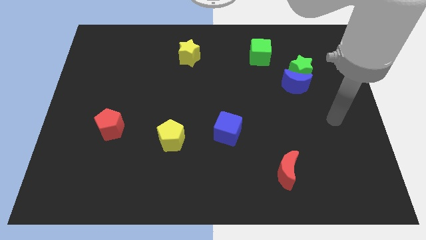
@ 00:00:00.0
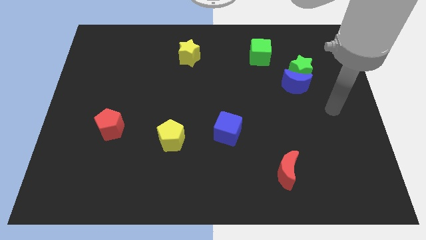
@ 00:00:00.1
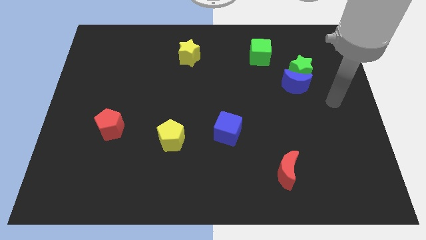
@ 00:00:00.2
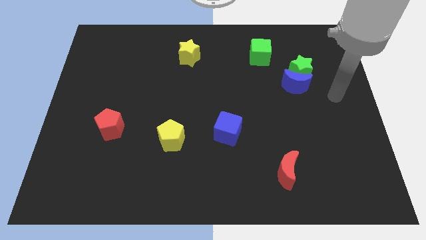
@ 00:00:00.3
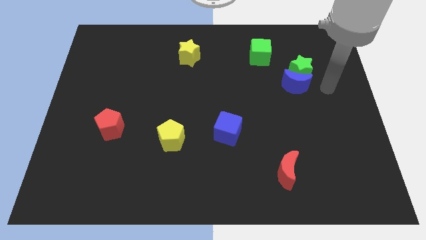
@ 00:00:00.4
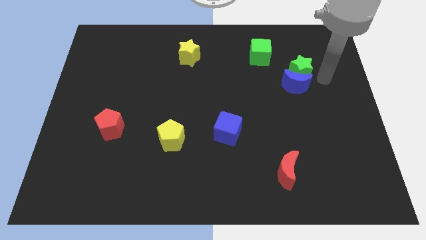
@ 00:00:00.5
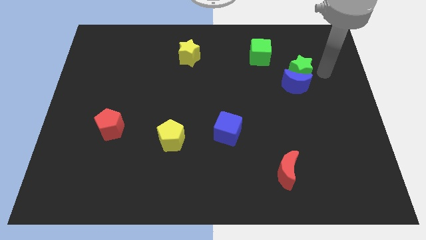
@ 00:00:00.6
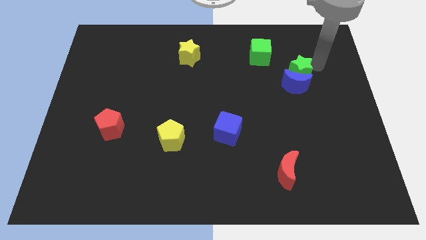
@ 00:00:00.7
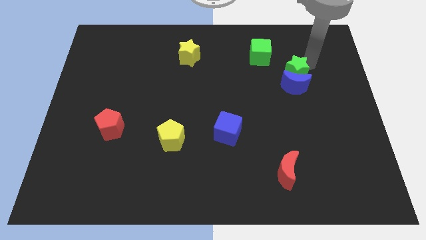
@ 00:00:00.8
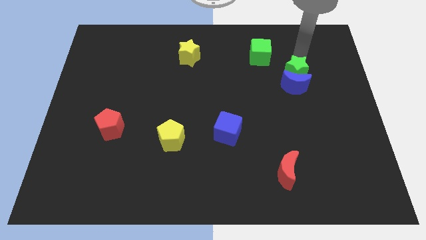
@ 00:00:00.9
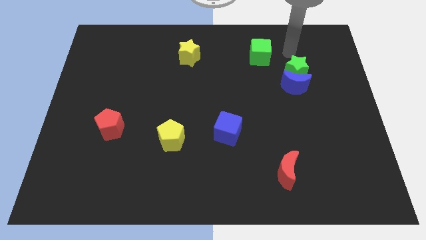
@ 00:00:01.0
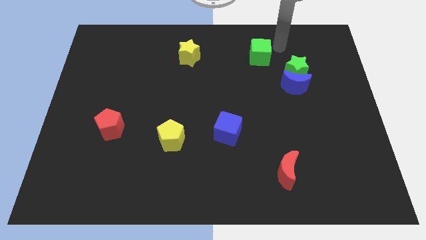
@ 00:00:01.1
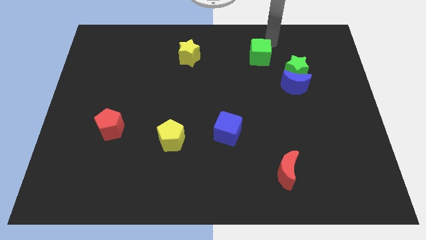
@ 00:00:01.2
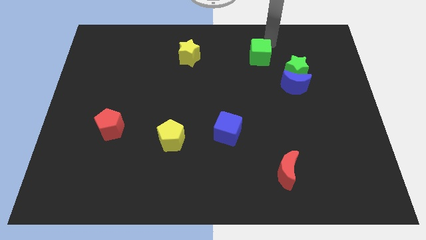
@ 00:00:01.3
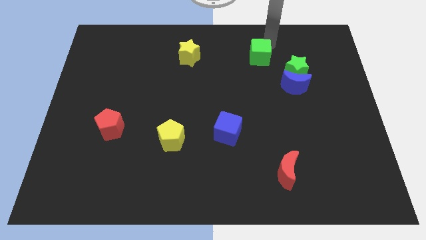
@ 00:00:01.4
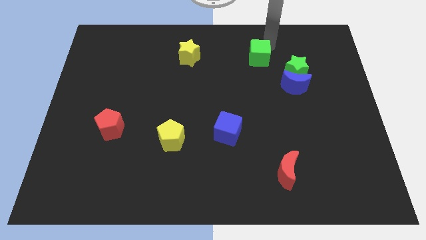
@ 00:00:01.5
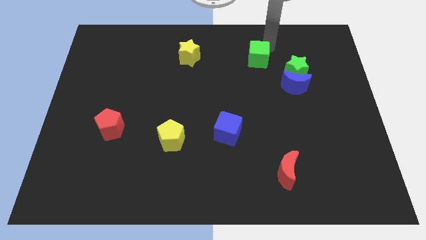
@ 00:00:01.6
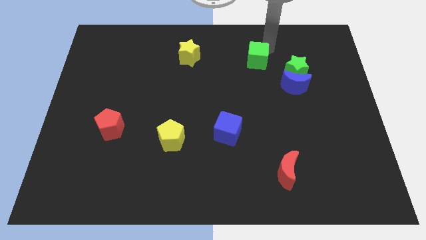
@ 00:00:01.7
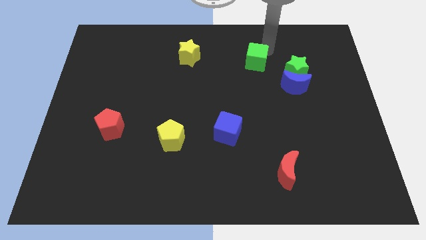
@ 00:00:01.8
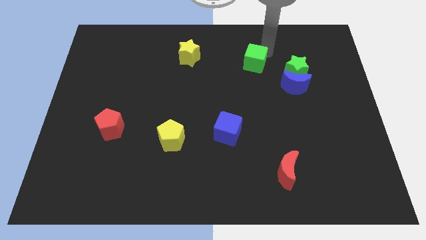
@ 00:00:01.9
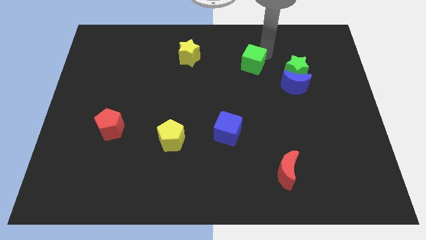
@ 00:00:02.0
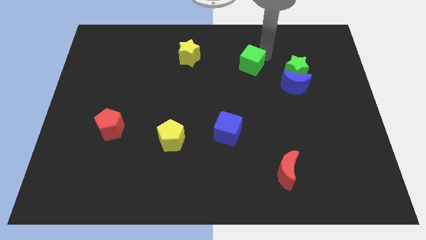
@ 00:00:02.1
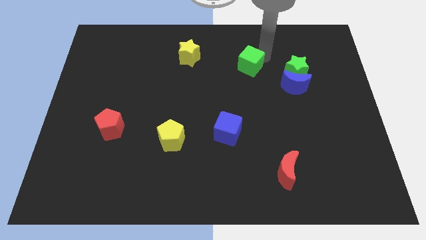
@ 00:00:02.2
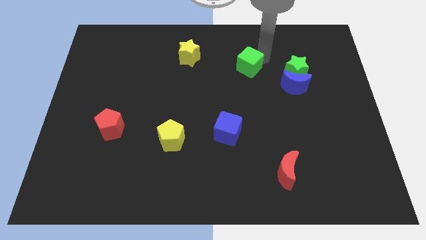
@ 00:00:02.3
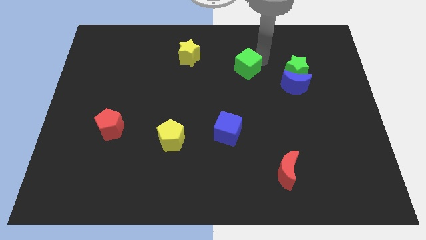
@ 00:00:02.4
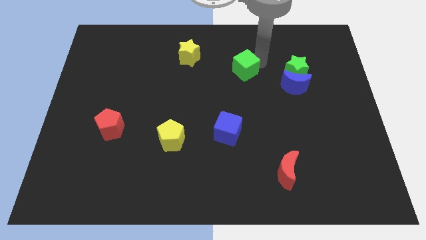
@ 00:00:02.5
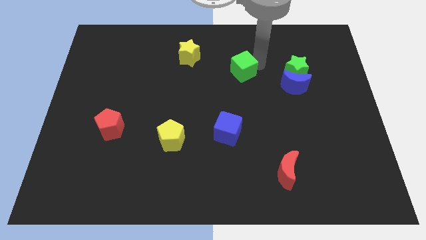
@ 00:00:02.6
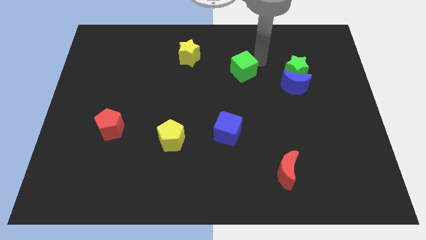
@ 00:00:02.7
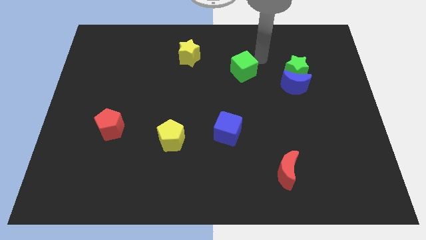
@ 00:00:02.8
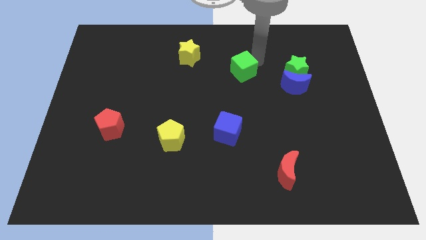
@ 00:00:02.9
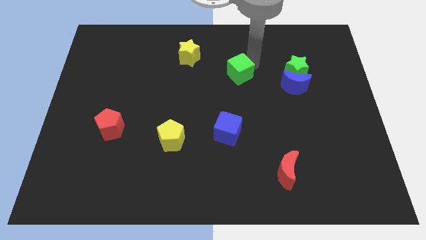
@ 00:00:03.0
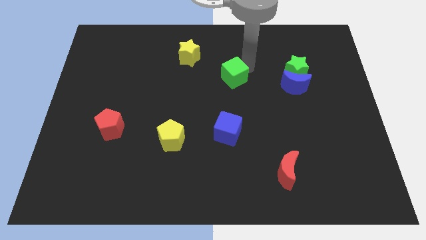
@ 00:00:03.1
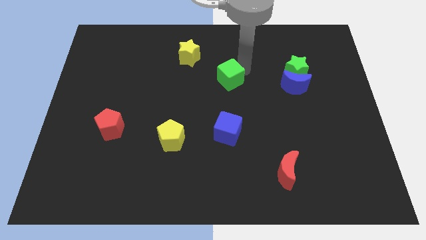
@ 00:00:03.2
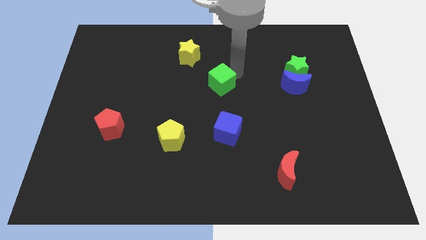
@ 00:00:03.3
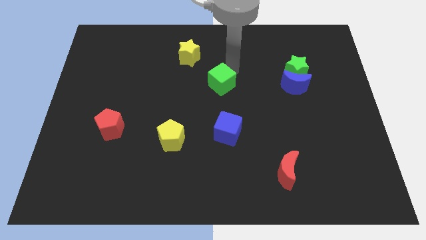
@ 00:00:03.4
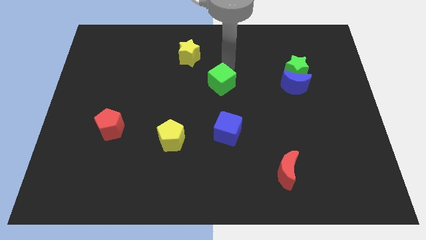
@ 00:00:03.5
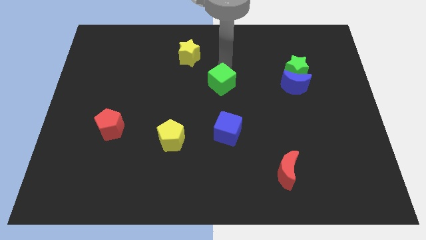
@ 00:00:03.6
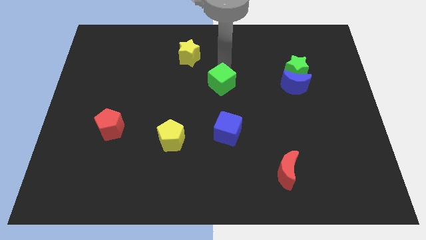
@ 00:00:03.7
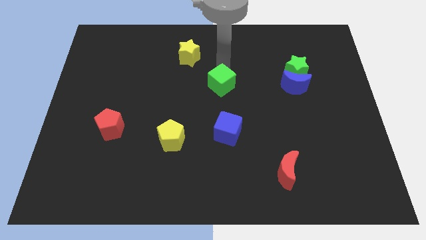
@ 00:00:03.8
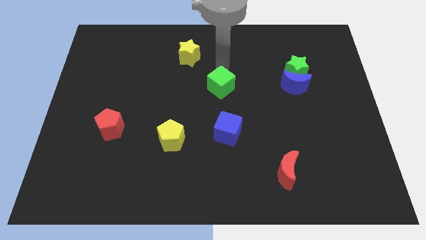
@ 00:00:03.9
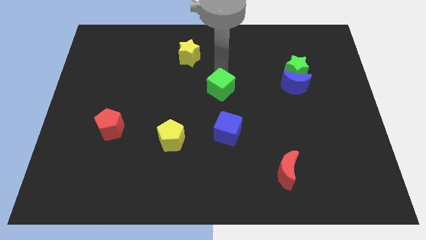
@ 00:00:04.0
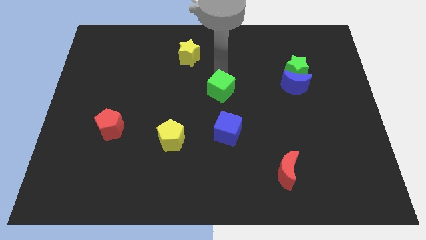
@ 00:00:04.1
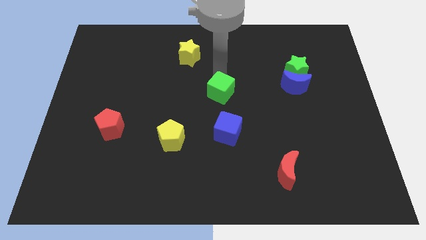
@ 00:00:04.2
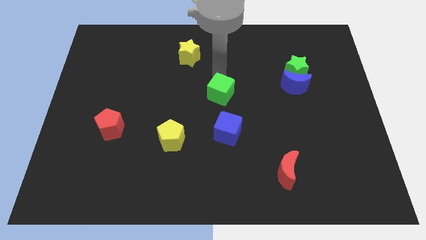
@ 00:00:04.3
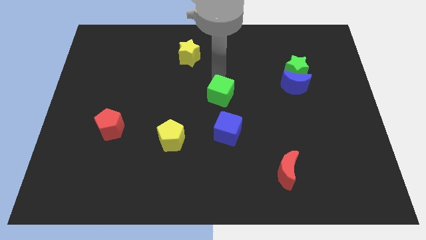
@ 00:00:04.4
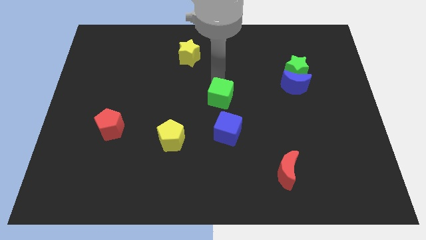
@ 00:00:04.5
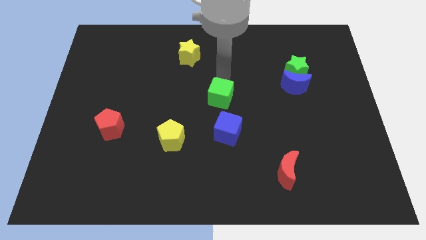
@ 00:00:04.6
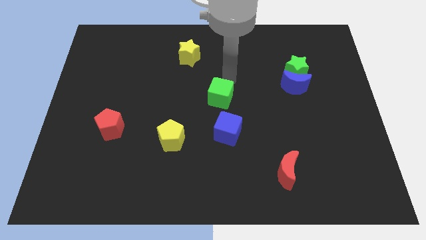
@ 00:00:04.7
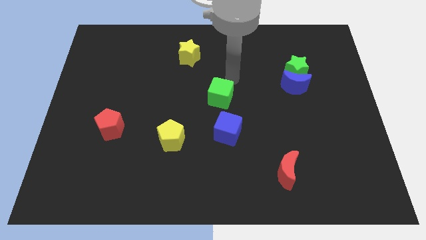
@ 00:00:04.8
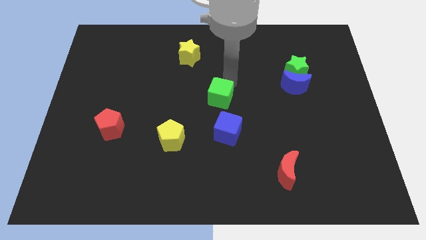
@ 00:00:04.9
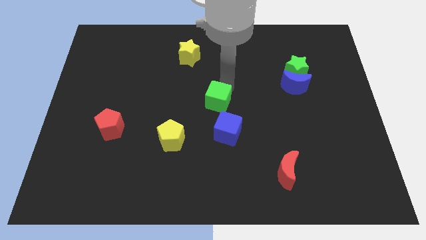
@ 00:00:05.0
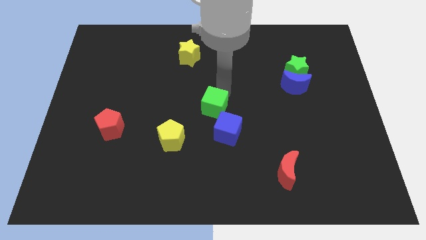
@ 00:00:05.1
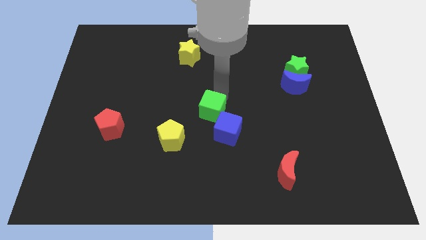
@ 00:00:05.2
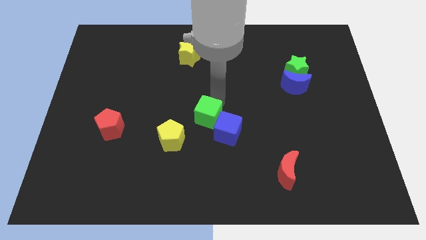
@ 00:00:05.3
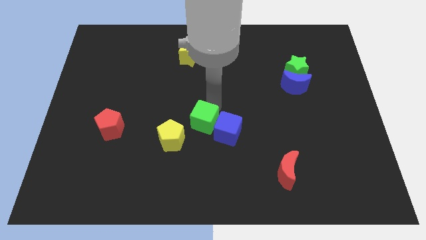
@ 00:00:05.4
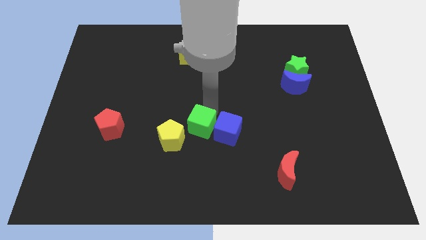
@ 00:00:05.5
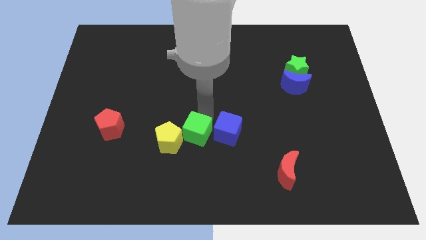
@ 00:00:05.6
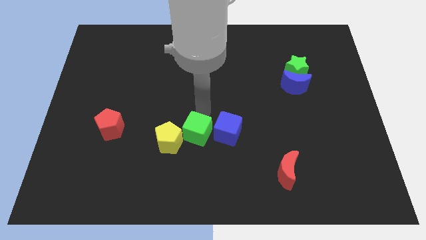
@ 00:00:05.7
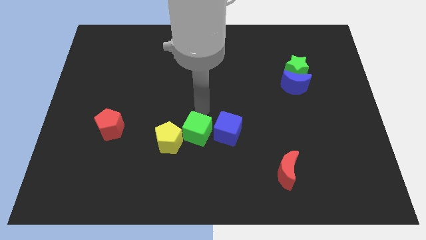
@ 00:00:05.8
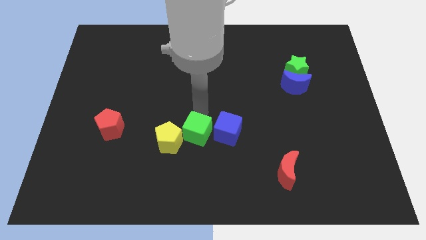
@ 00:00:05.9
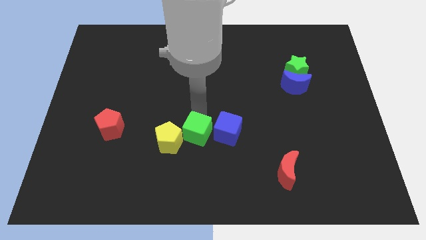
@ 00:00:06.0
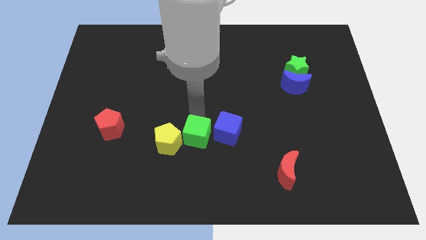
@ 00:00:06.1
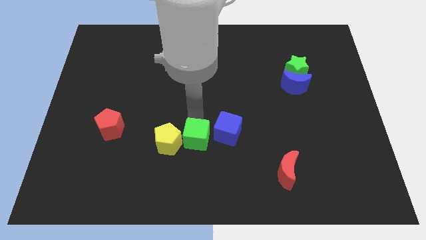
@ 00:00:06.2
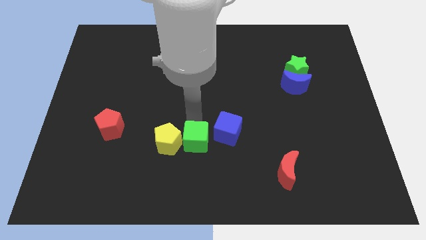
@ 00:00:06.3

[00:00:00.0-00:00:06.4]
put the green cube diagonally down and to the right of the yellow pentagon

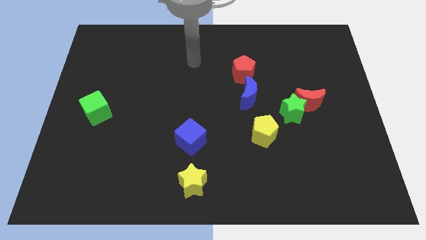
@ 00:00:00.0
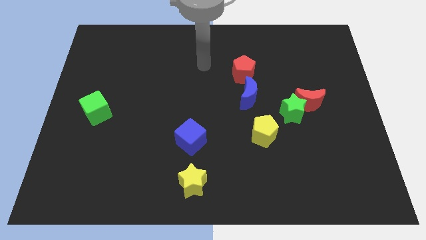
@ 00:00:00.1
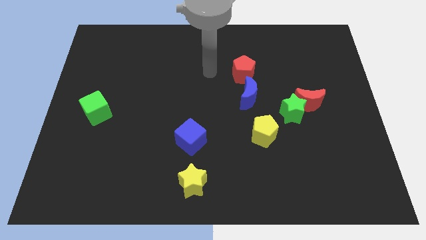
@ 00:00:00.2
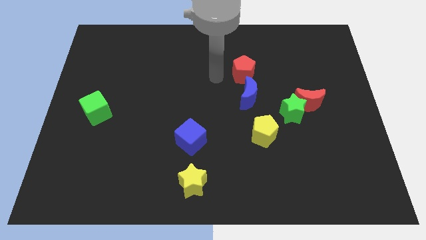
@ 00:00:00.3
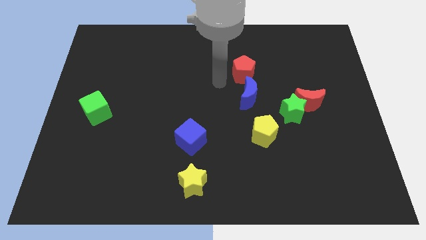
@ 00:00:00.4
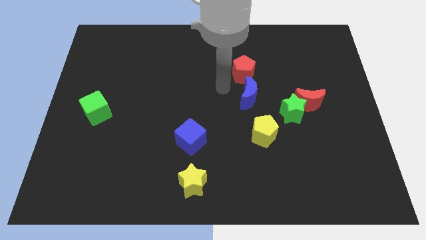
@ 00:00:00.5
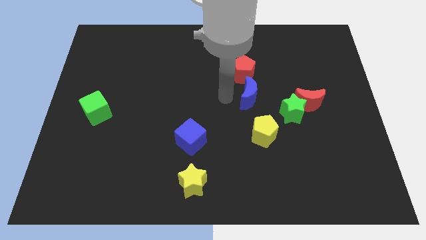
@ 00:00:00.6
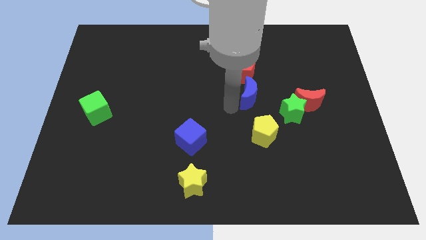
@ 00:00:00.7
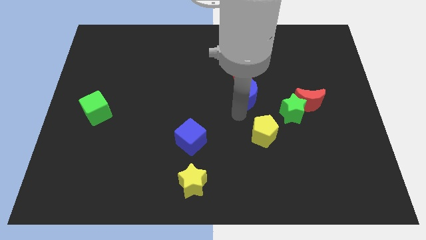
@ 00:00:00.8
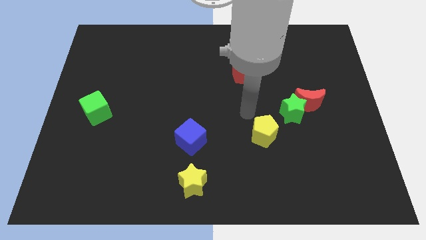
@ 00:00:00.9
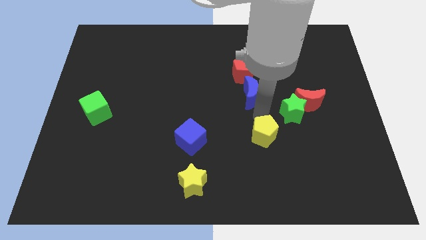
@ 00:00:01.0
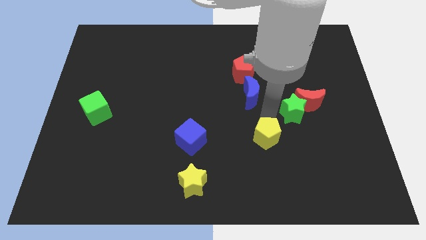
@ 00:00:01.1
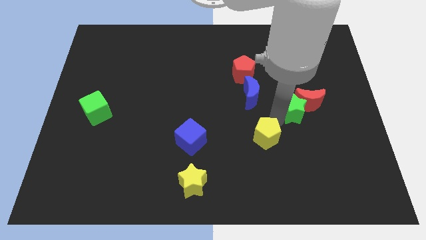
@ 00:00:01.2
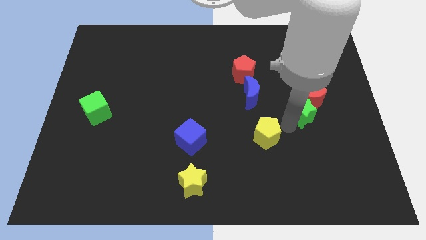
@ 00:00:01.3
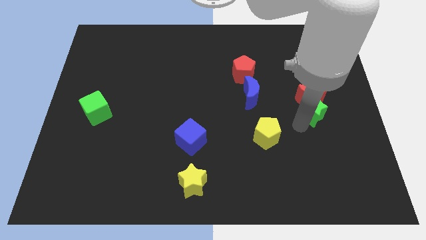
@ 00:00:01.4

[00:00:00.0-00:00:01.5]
push the red moon to the top left side of the green star
